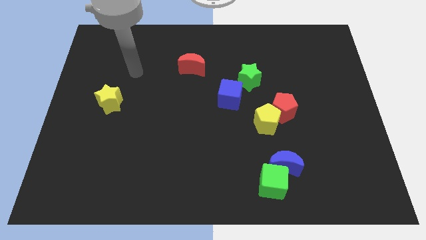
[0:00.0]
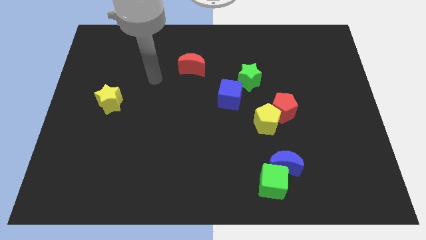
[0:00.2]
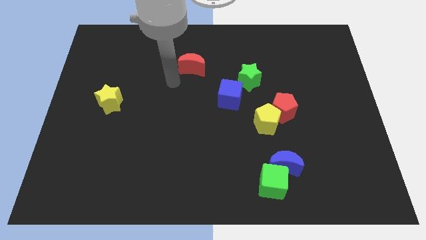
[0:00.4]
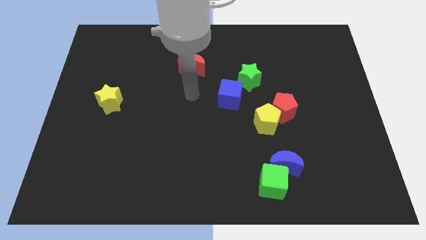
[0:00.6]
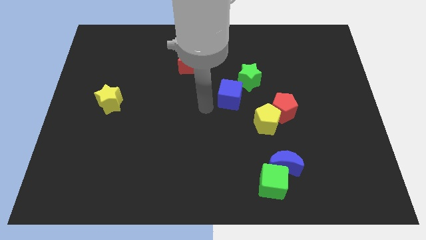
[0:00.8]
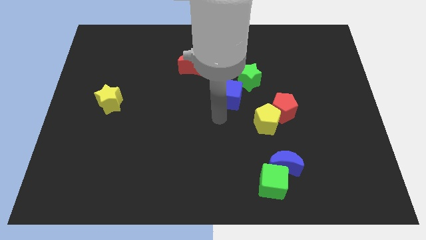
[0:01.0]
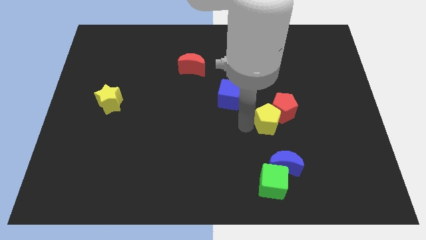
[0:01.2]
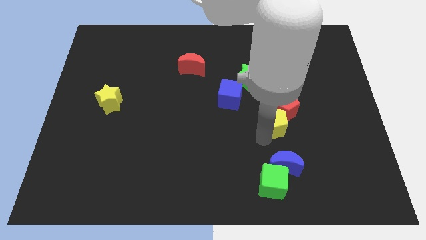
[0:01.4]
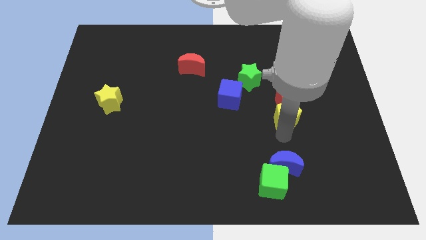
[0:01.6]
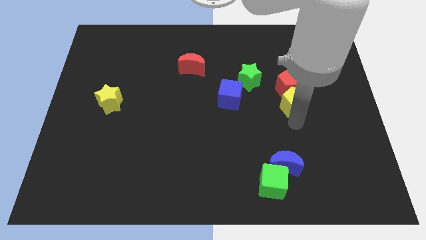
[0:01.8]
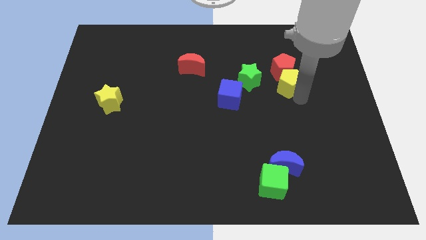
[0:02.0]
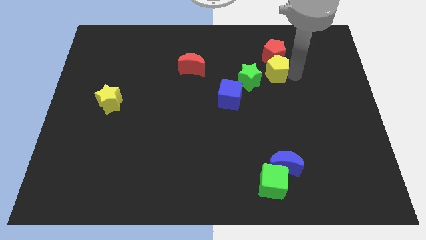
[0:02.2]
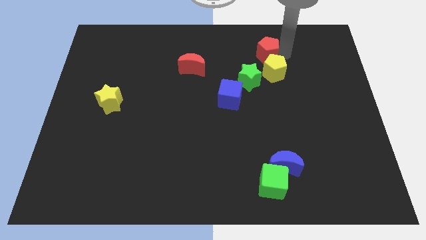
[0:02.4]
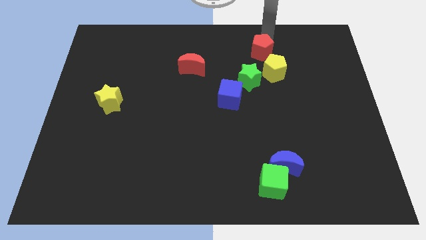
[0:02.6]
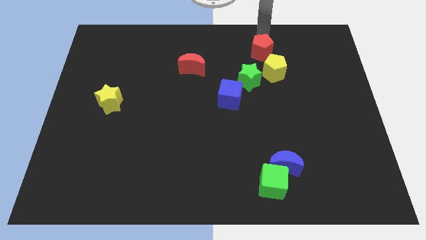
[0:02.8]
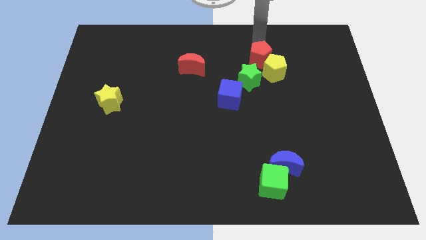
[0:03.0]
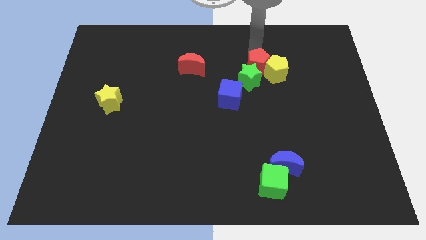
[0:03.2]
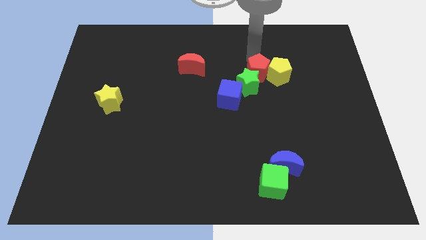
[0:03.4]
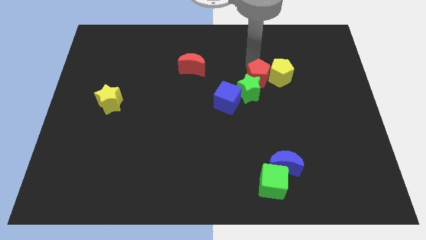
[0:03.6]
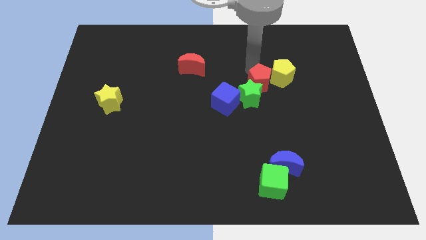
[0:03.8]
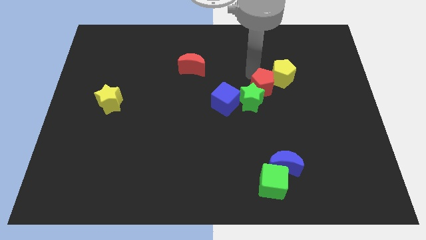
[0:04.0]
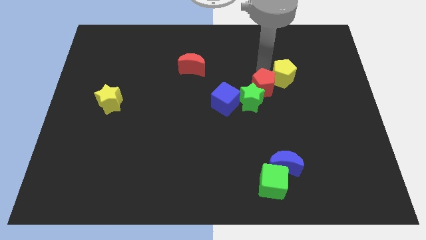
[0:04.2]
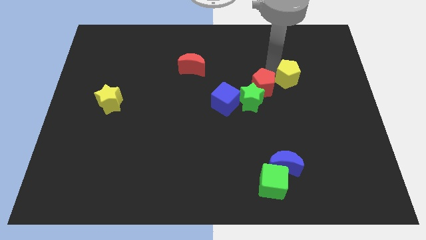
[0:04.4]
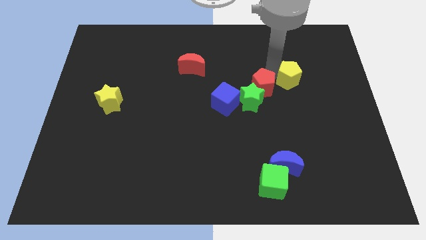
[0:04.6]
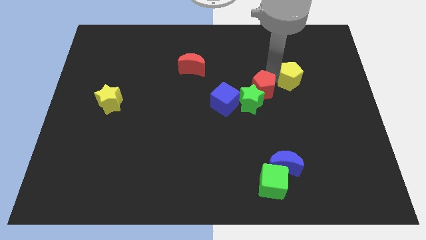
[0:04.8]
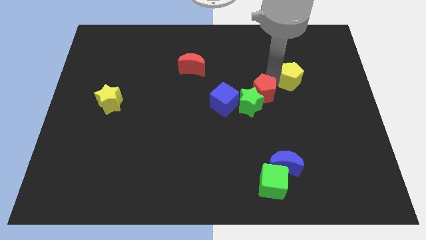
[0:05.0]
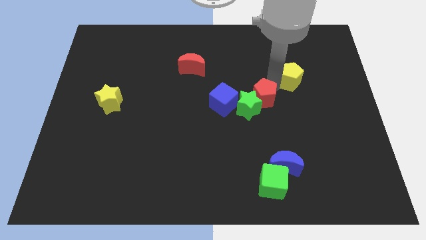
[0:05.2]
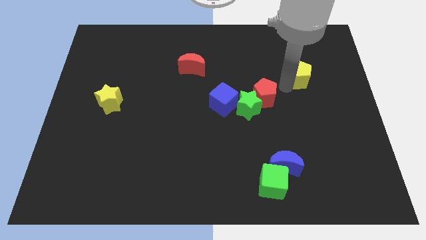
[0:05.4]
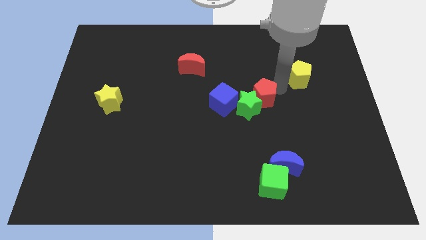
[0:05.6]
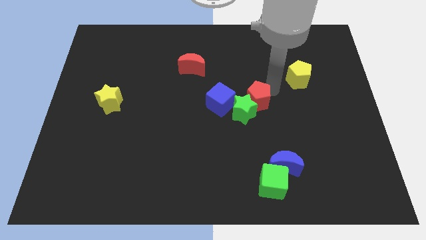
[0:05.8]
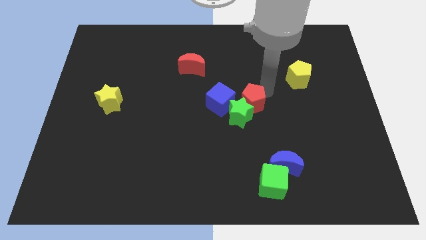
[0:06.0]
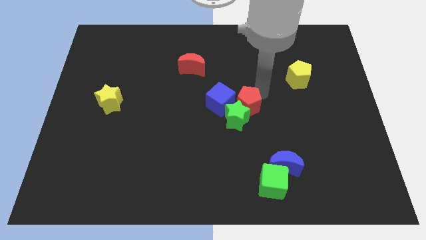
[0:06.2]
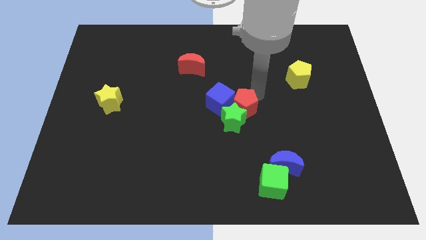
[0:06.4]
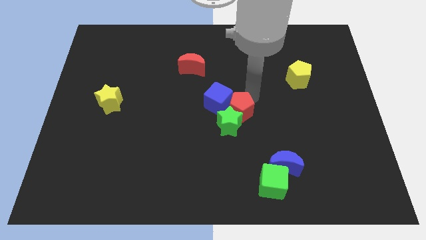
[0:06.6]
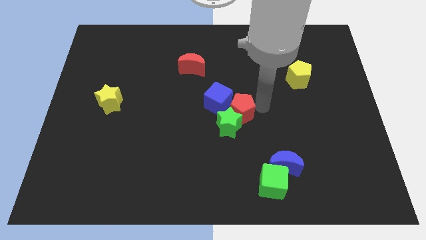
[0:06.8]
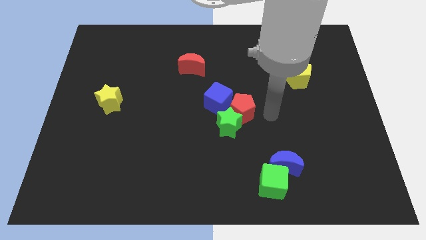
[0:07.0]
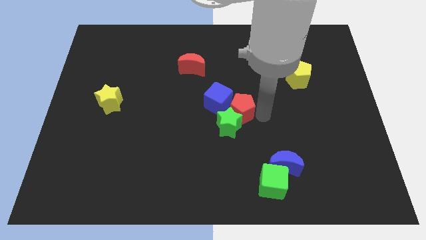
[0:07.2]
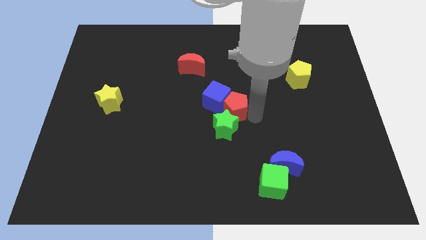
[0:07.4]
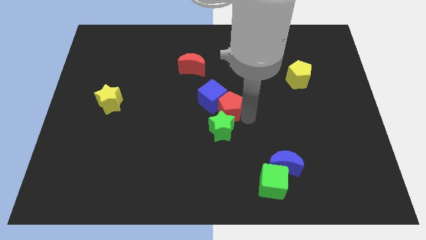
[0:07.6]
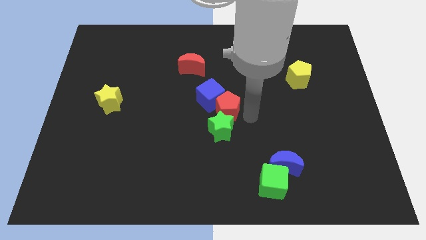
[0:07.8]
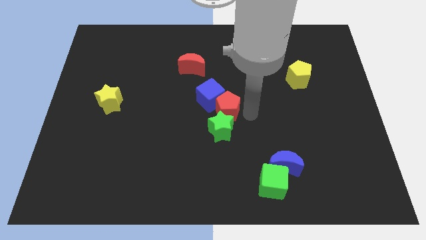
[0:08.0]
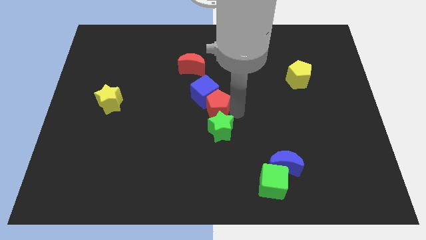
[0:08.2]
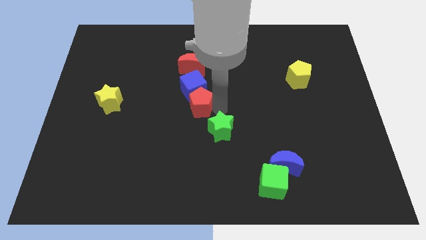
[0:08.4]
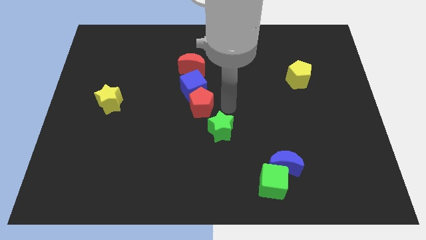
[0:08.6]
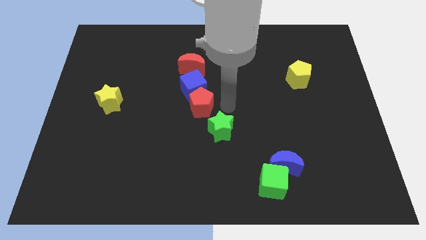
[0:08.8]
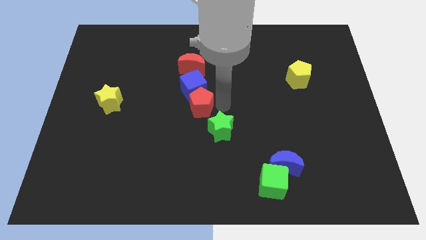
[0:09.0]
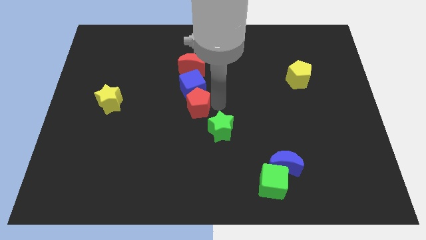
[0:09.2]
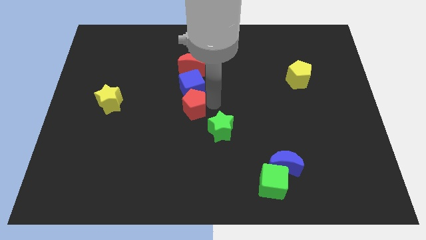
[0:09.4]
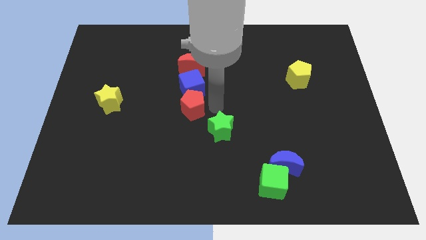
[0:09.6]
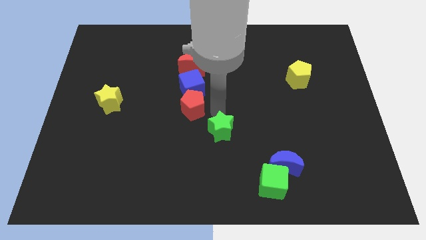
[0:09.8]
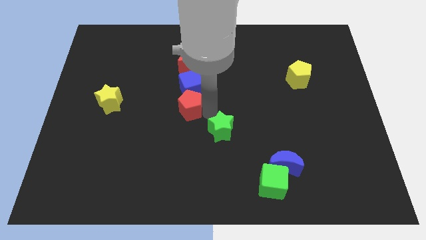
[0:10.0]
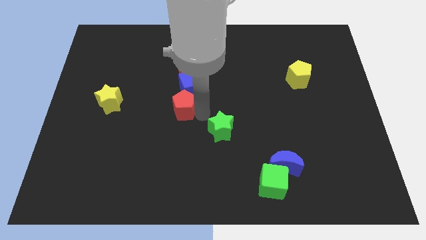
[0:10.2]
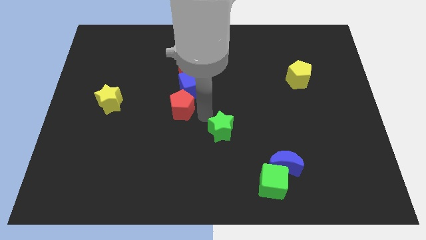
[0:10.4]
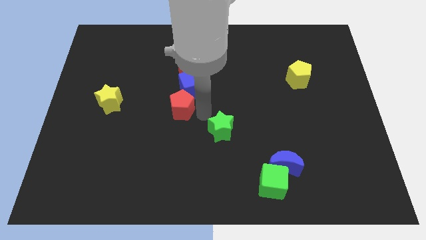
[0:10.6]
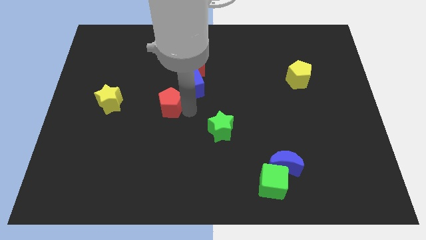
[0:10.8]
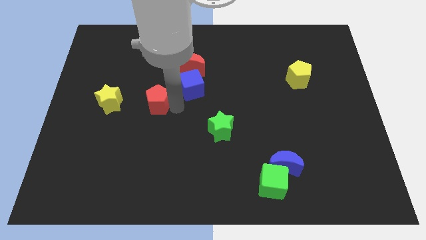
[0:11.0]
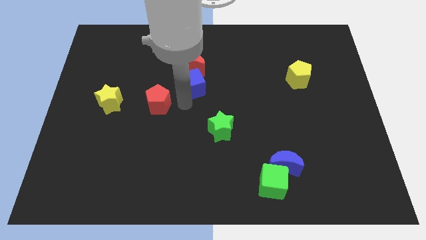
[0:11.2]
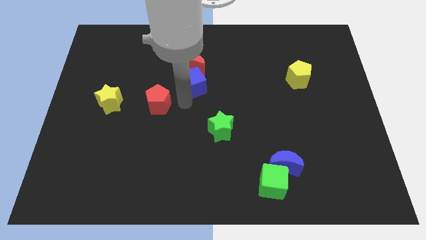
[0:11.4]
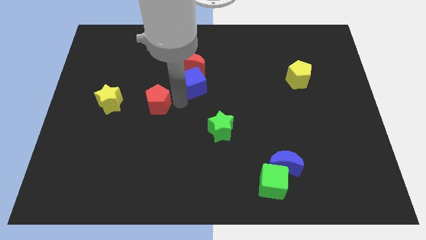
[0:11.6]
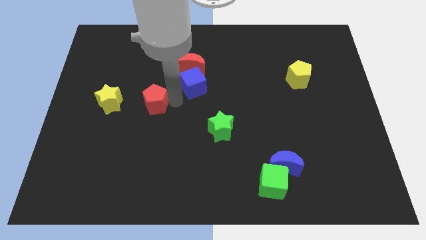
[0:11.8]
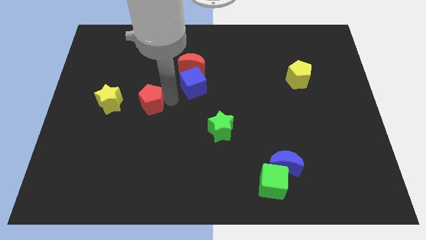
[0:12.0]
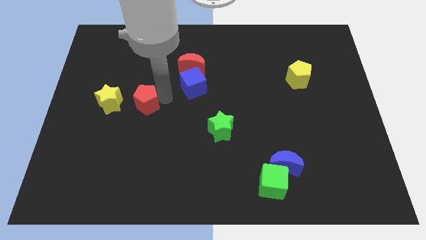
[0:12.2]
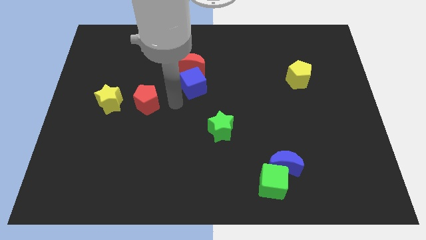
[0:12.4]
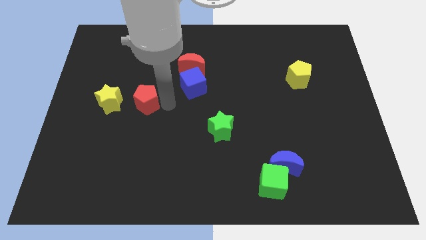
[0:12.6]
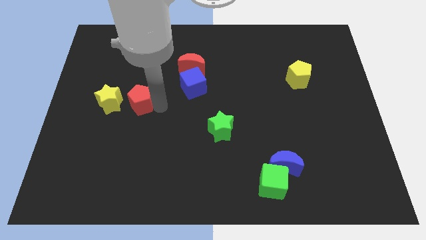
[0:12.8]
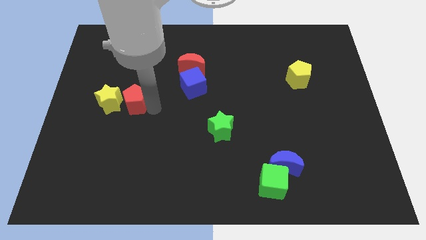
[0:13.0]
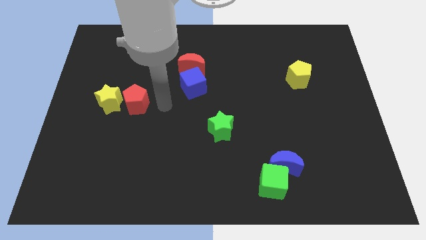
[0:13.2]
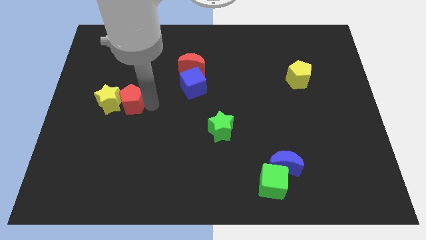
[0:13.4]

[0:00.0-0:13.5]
slide the red pentagon towards the yellow star

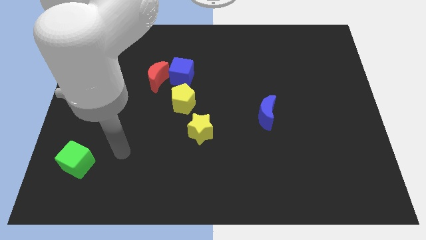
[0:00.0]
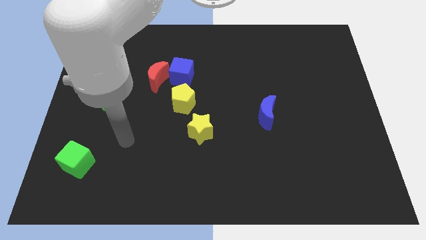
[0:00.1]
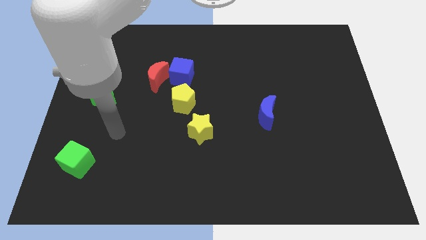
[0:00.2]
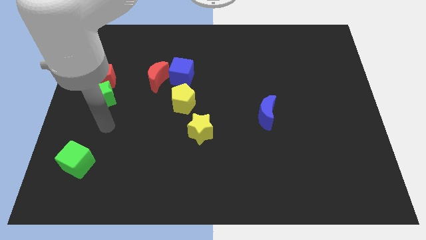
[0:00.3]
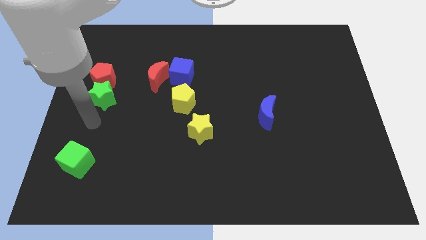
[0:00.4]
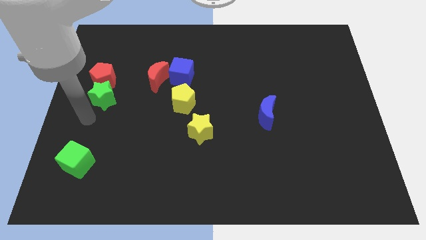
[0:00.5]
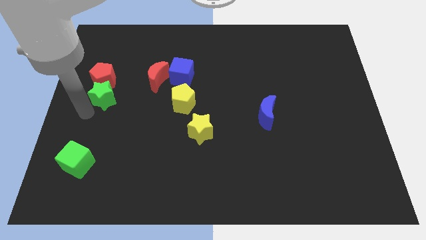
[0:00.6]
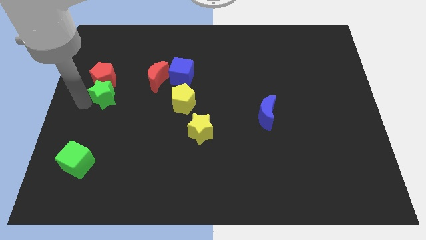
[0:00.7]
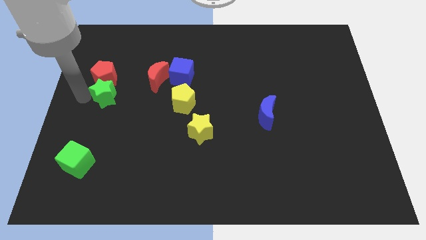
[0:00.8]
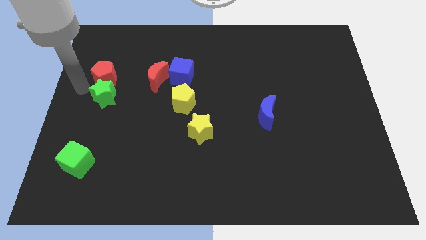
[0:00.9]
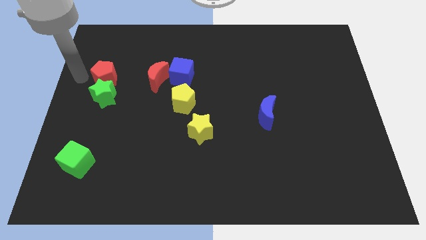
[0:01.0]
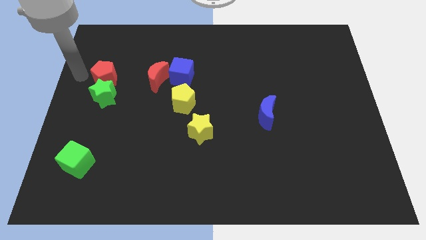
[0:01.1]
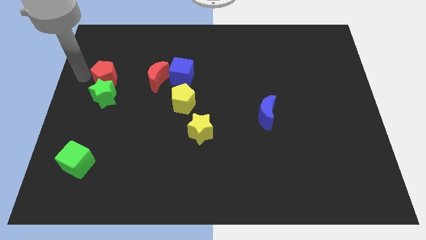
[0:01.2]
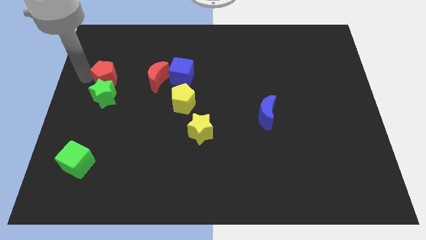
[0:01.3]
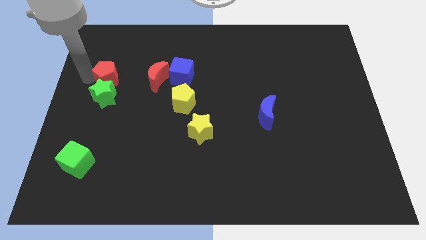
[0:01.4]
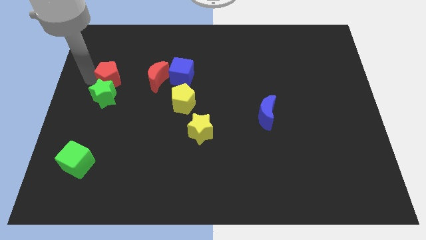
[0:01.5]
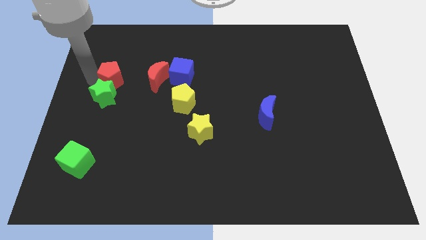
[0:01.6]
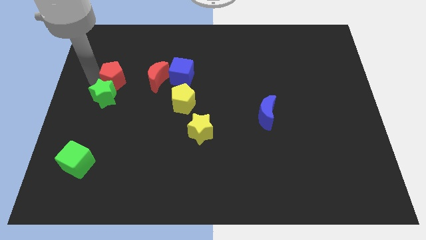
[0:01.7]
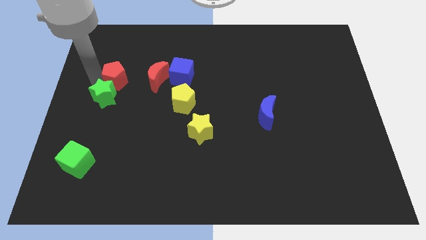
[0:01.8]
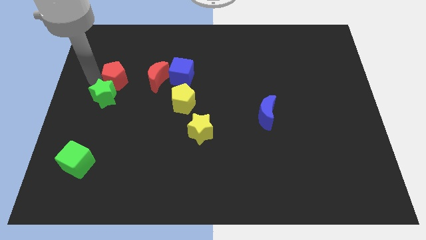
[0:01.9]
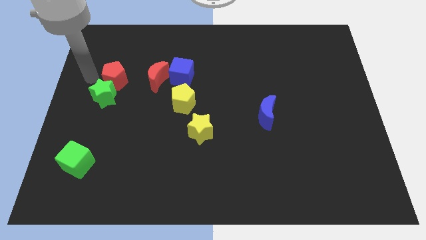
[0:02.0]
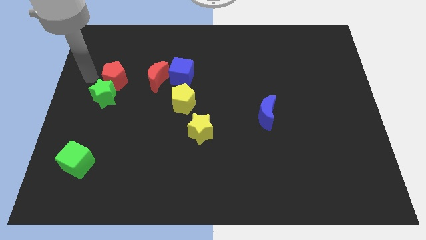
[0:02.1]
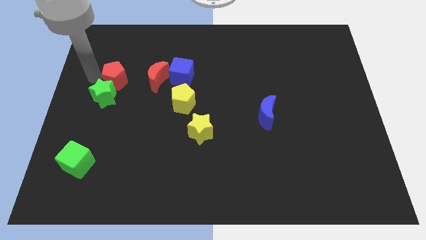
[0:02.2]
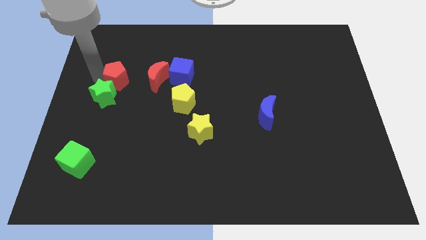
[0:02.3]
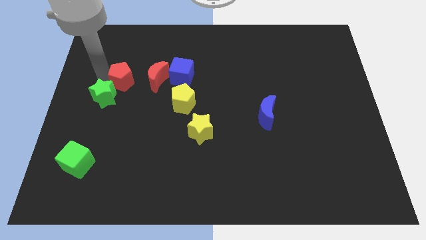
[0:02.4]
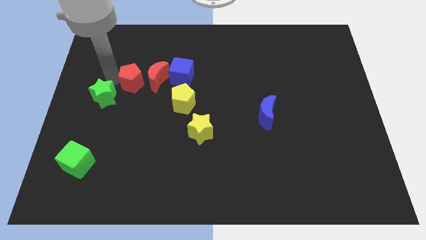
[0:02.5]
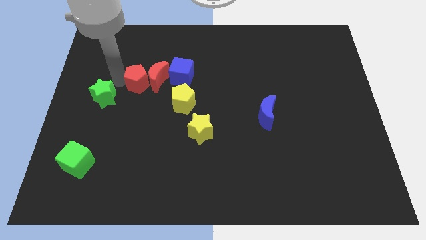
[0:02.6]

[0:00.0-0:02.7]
put the red pentagon close to the red moon
